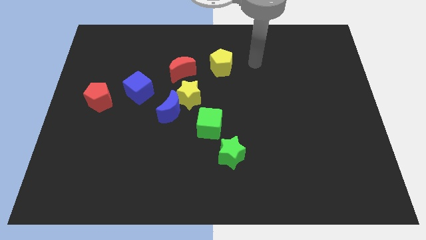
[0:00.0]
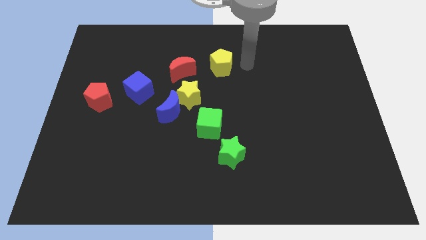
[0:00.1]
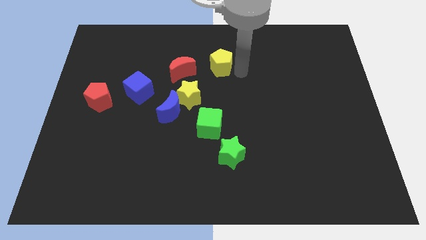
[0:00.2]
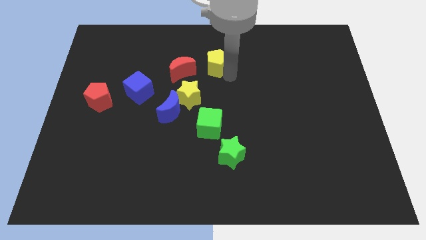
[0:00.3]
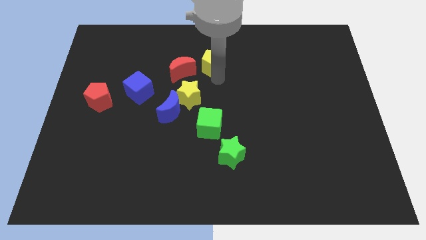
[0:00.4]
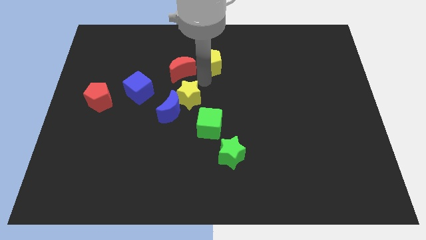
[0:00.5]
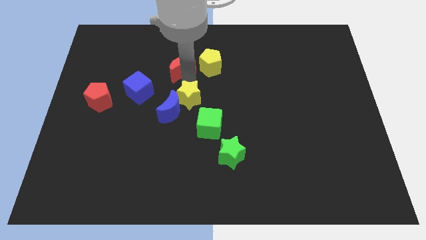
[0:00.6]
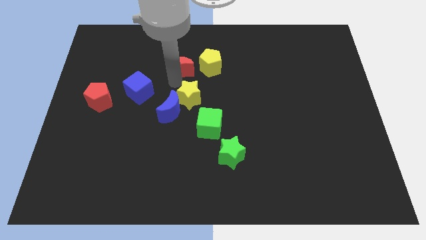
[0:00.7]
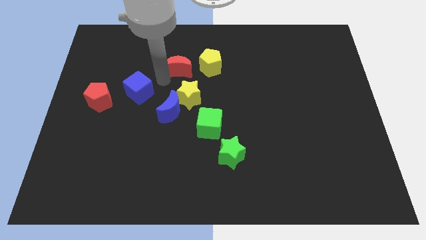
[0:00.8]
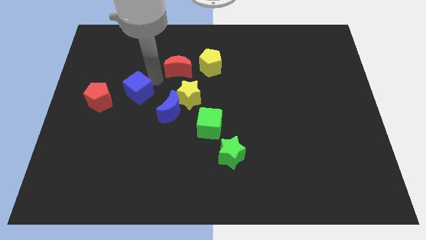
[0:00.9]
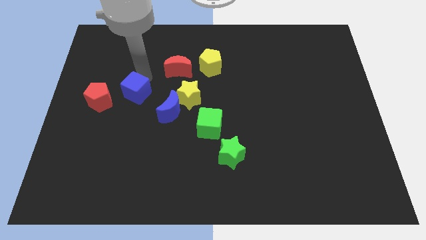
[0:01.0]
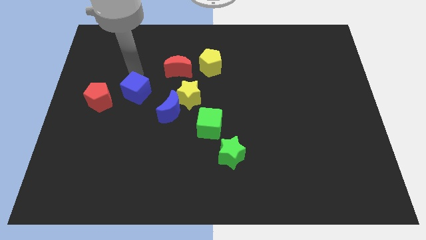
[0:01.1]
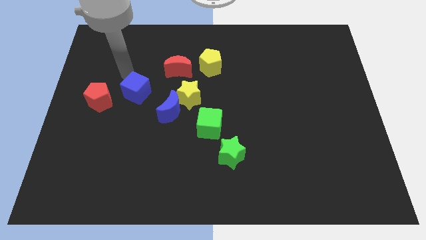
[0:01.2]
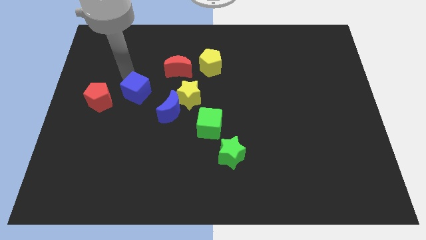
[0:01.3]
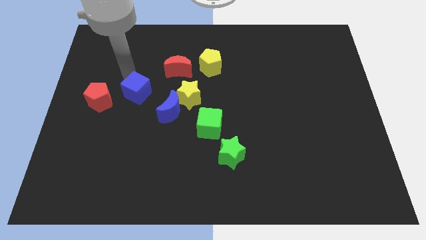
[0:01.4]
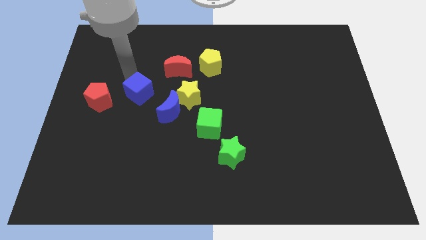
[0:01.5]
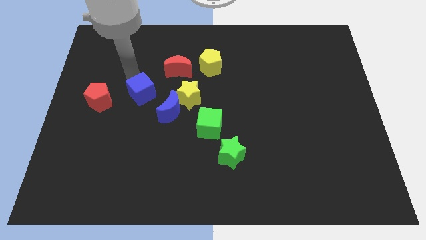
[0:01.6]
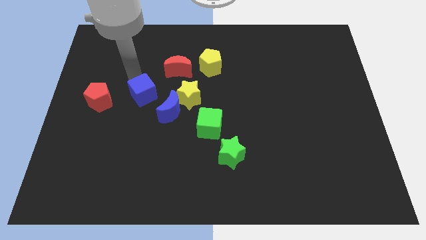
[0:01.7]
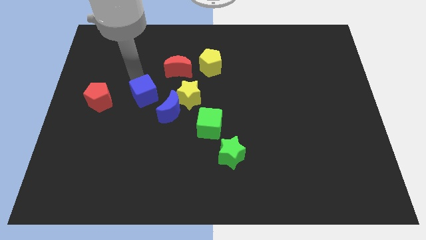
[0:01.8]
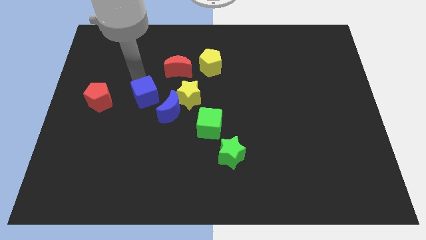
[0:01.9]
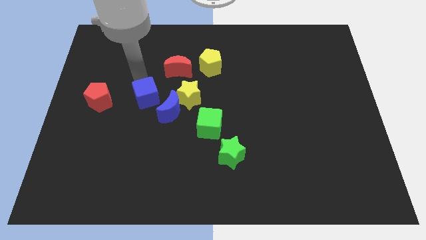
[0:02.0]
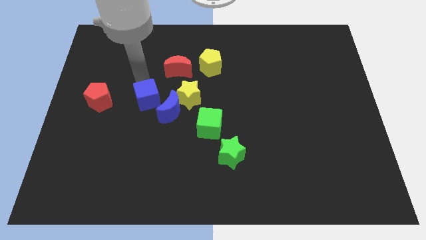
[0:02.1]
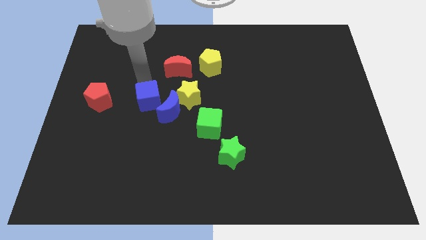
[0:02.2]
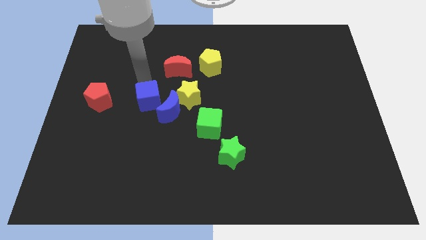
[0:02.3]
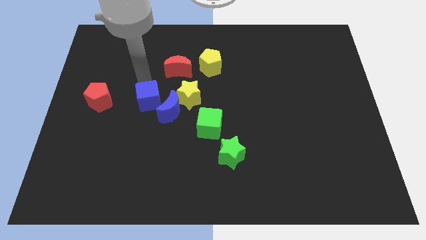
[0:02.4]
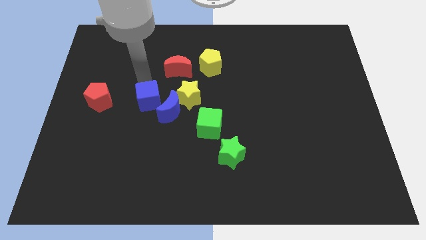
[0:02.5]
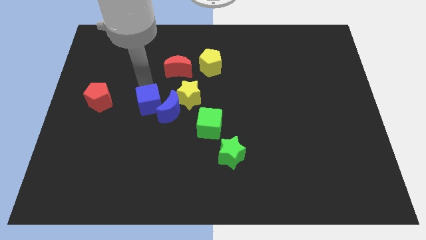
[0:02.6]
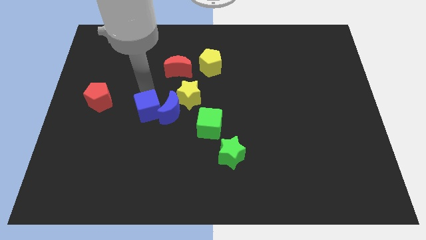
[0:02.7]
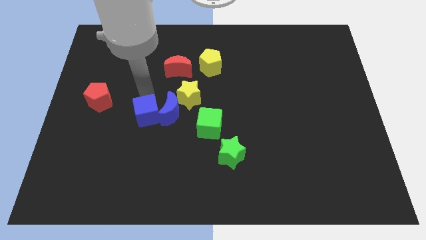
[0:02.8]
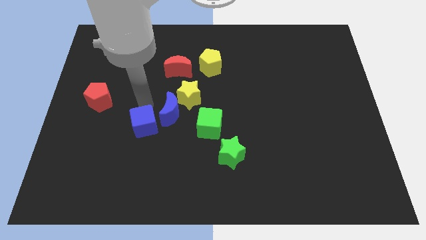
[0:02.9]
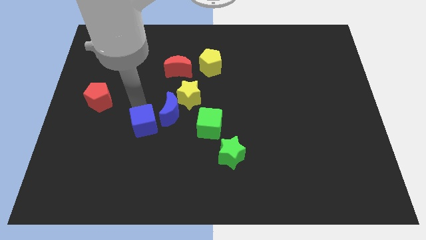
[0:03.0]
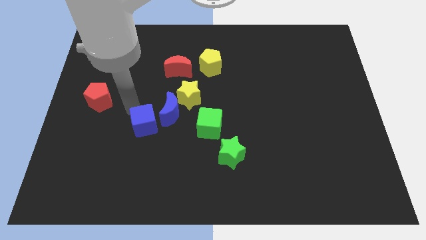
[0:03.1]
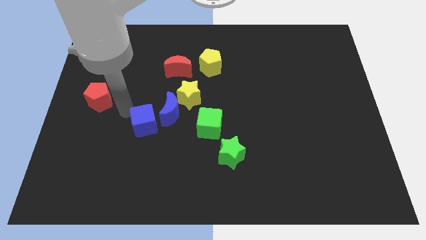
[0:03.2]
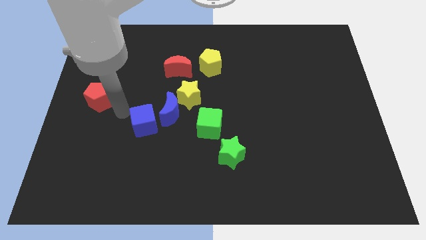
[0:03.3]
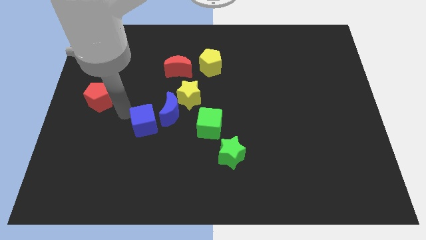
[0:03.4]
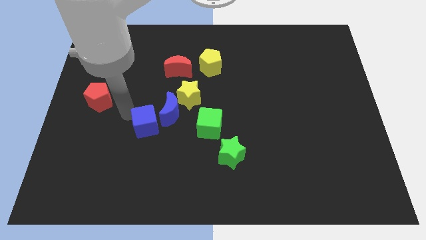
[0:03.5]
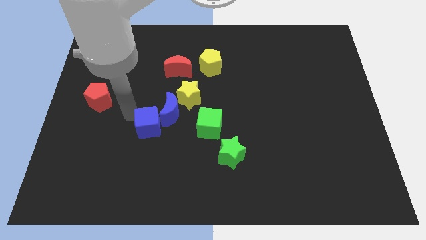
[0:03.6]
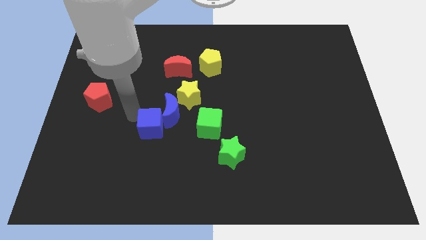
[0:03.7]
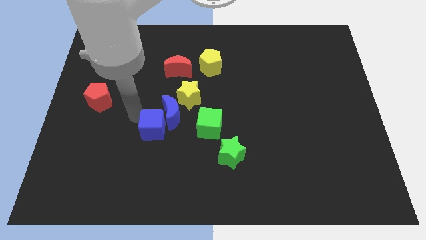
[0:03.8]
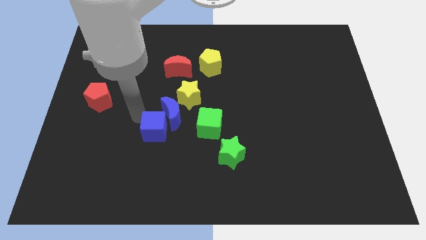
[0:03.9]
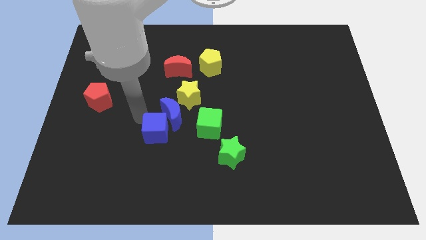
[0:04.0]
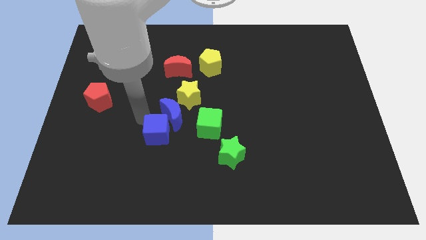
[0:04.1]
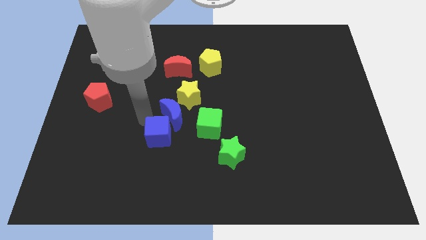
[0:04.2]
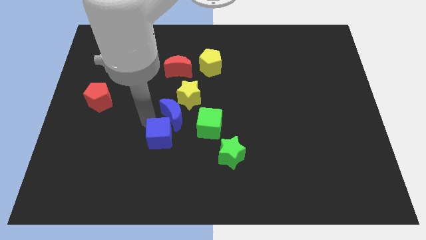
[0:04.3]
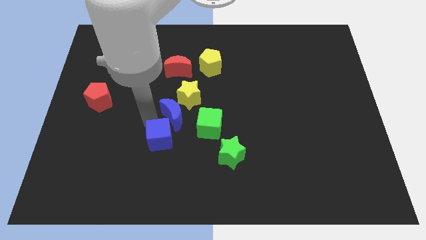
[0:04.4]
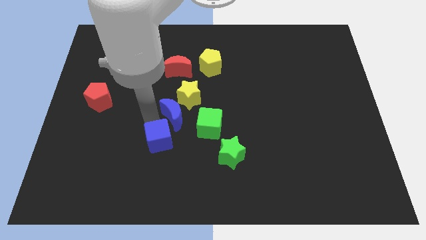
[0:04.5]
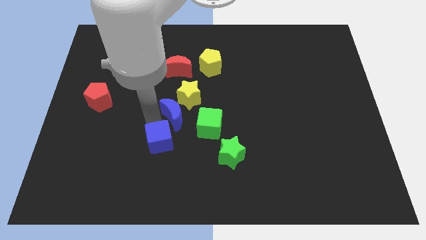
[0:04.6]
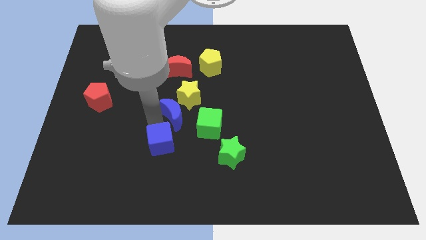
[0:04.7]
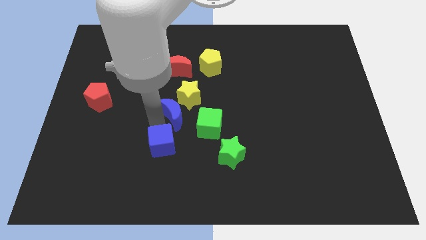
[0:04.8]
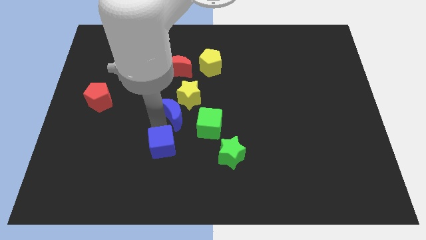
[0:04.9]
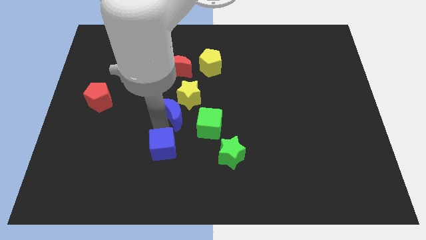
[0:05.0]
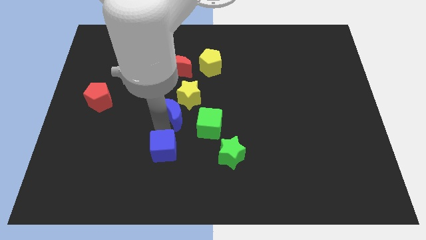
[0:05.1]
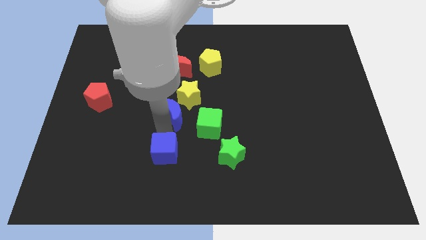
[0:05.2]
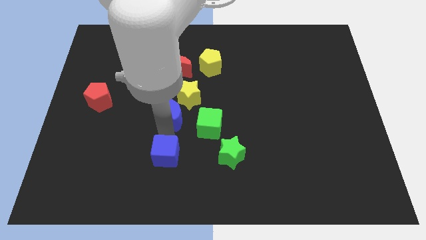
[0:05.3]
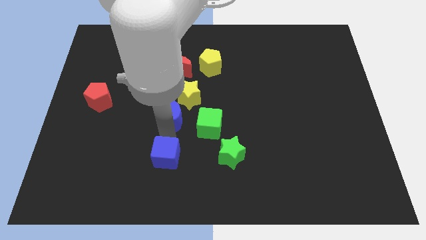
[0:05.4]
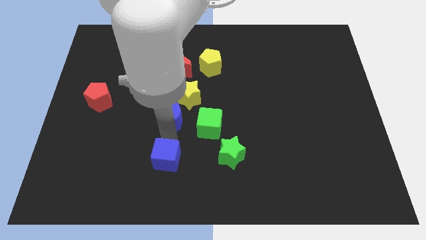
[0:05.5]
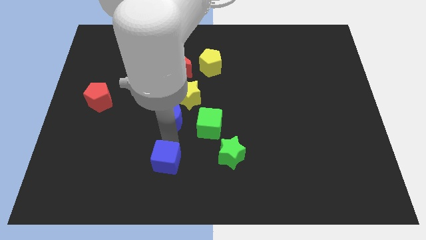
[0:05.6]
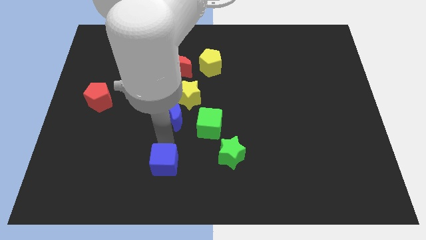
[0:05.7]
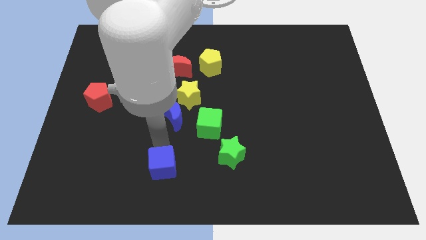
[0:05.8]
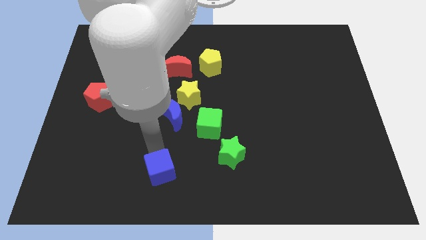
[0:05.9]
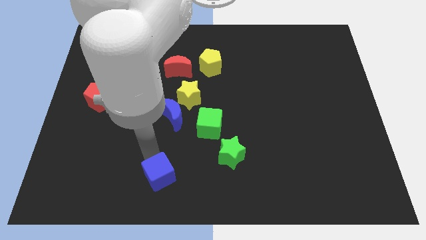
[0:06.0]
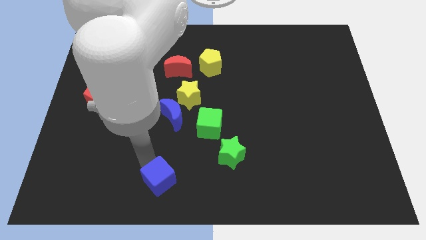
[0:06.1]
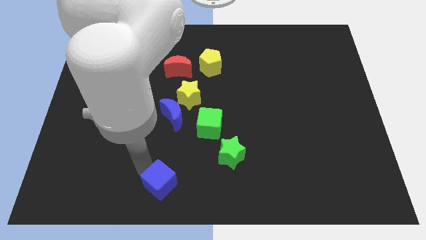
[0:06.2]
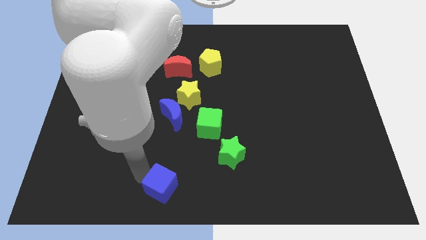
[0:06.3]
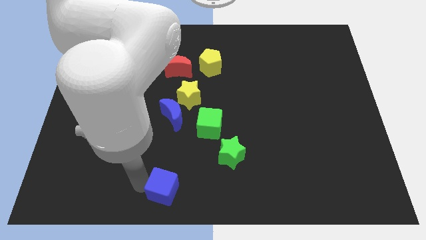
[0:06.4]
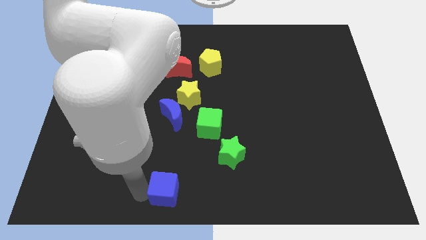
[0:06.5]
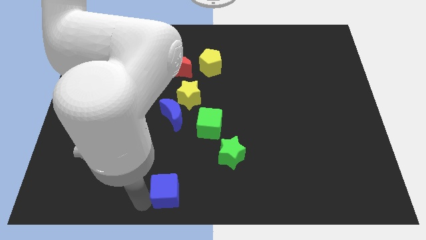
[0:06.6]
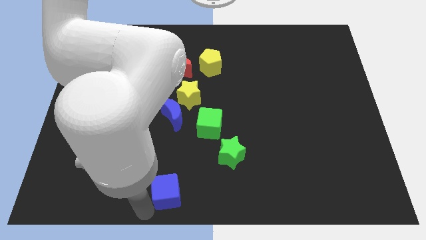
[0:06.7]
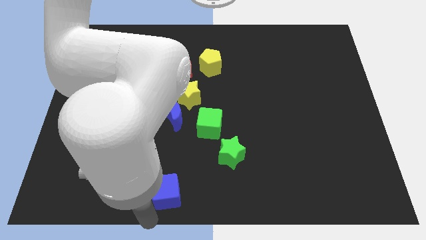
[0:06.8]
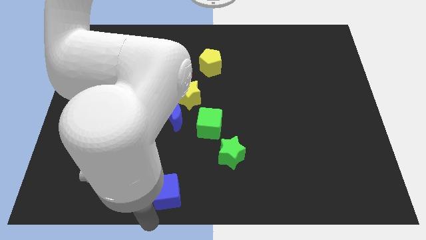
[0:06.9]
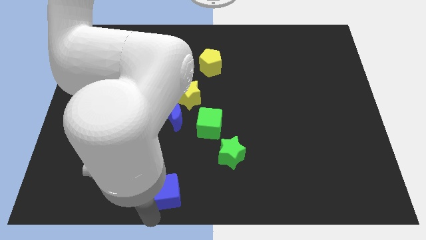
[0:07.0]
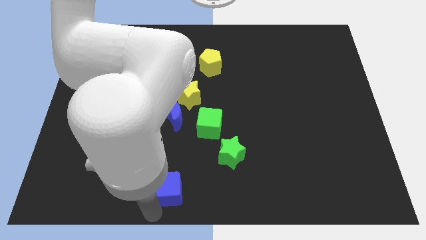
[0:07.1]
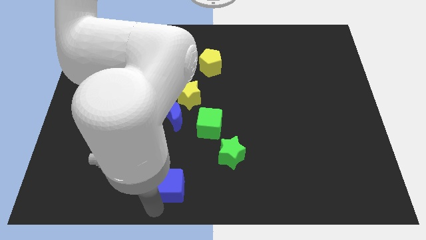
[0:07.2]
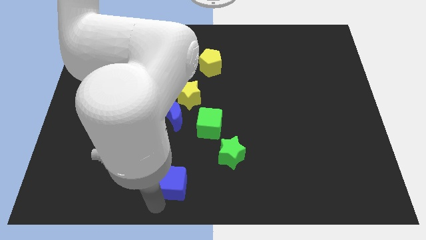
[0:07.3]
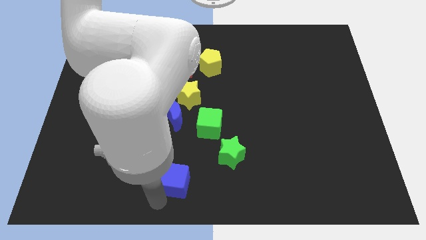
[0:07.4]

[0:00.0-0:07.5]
slide the blue cube down and right diagonally

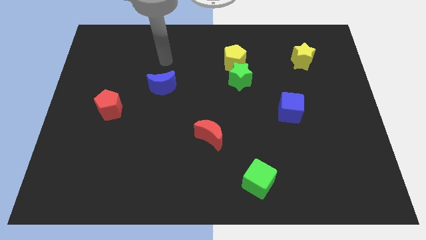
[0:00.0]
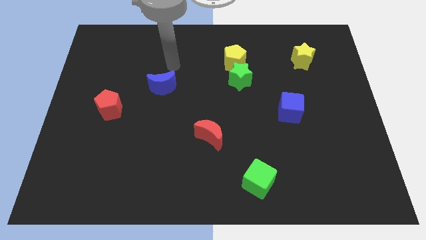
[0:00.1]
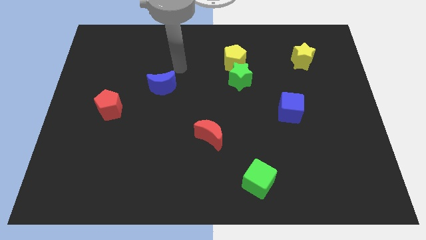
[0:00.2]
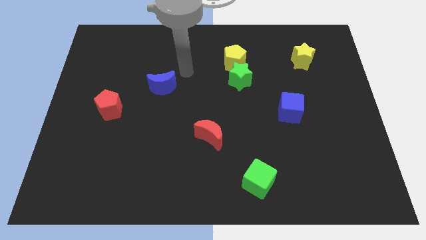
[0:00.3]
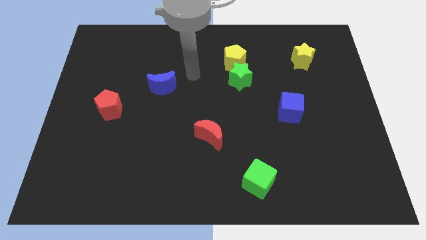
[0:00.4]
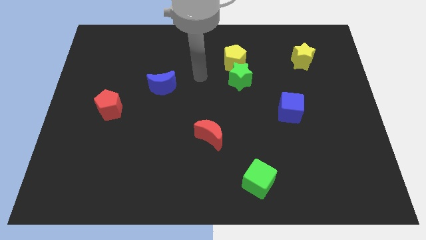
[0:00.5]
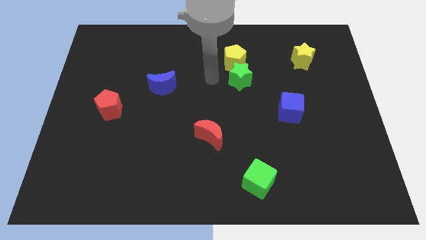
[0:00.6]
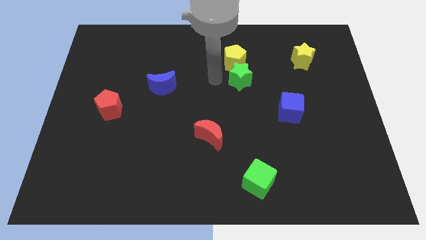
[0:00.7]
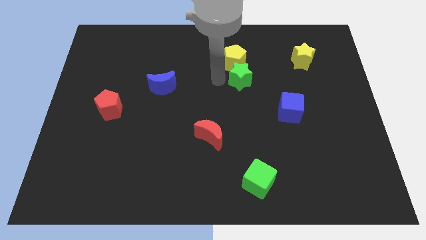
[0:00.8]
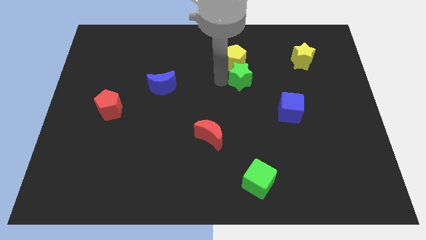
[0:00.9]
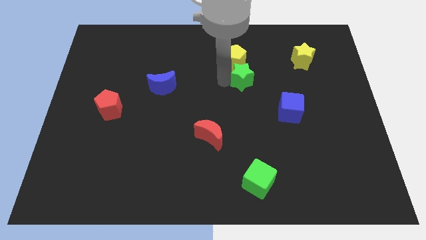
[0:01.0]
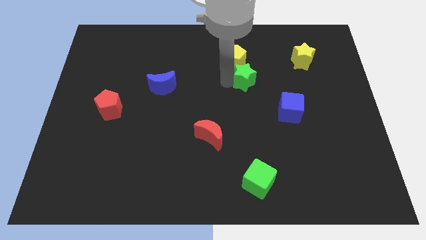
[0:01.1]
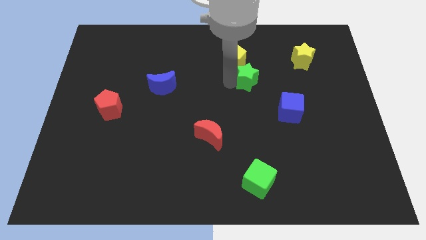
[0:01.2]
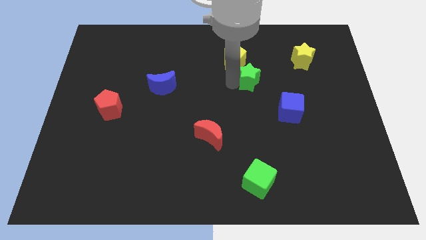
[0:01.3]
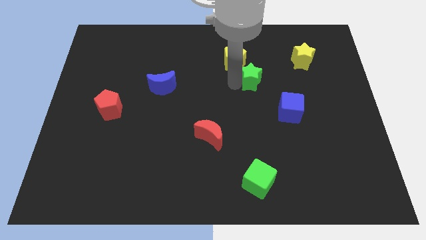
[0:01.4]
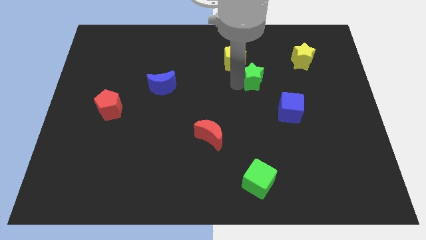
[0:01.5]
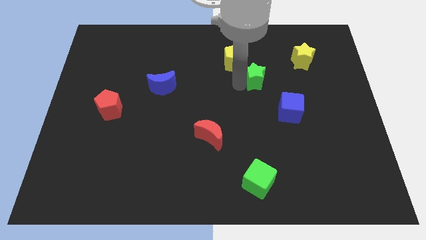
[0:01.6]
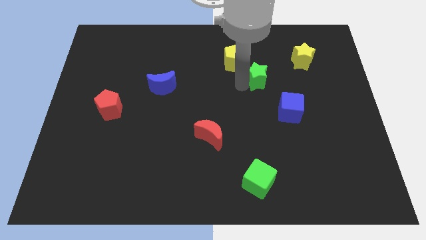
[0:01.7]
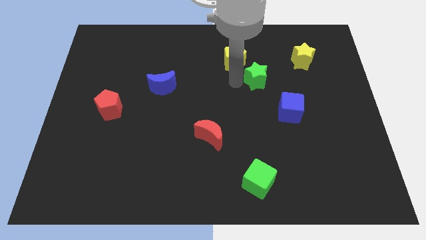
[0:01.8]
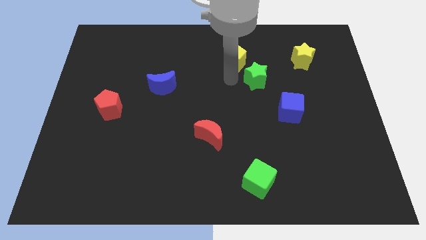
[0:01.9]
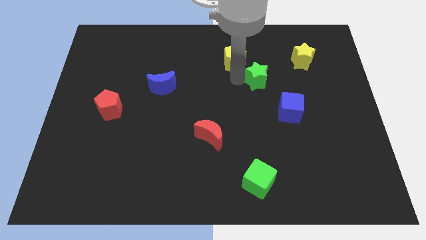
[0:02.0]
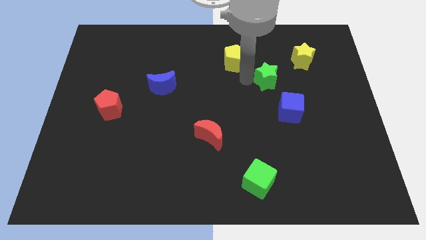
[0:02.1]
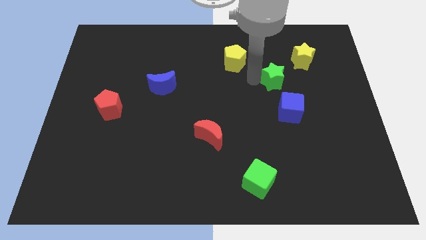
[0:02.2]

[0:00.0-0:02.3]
slide the green star somewhat to the right
